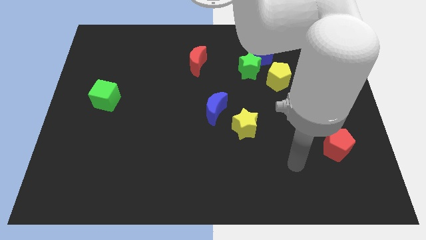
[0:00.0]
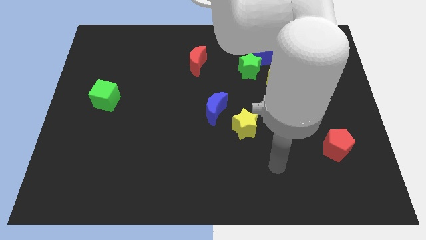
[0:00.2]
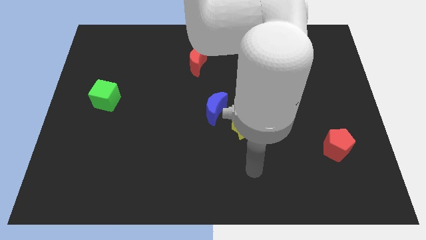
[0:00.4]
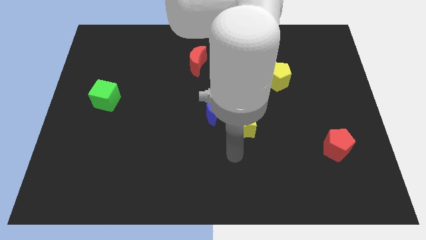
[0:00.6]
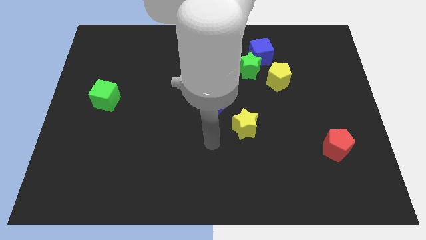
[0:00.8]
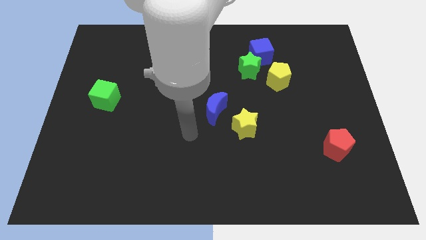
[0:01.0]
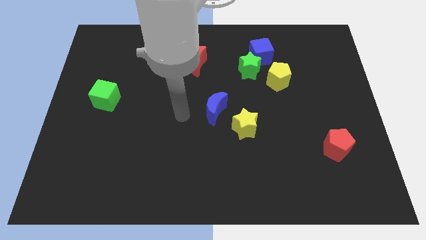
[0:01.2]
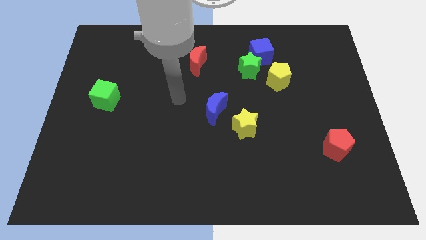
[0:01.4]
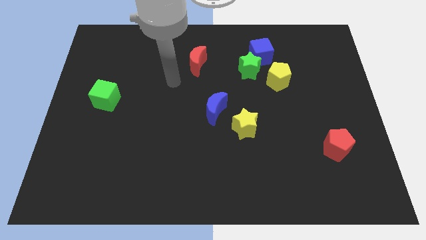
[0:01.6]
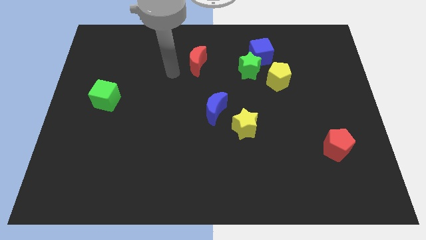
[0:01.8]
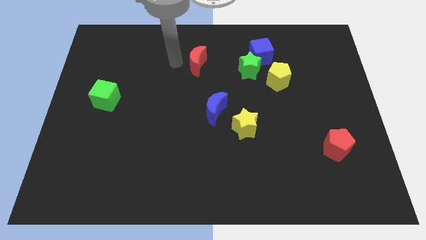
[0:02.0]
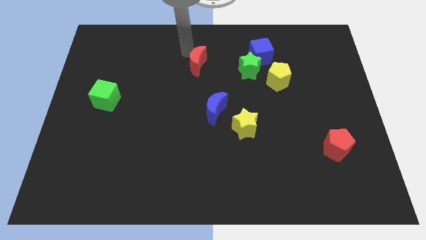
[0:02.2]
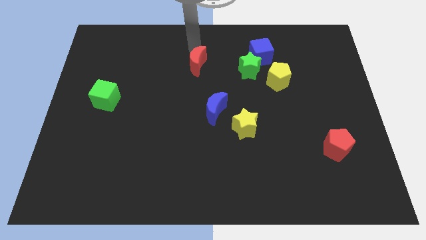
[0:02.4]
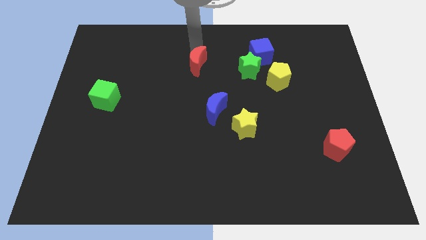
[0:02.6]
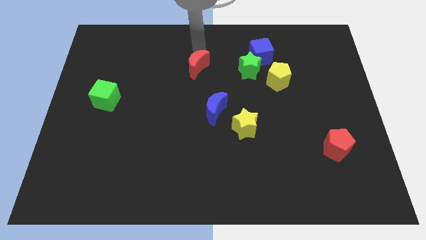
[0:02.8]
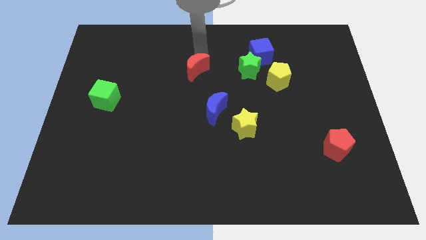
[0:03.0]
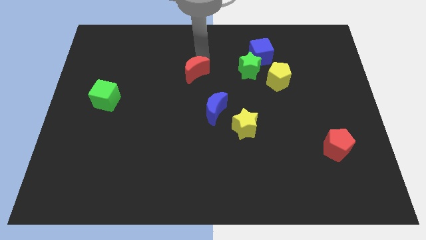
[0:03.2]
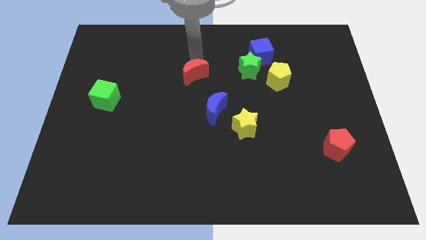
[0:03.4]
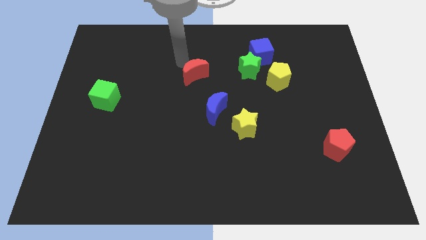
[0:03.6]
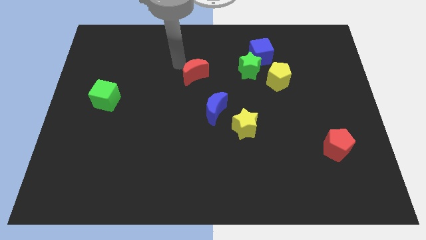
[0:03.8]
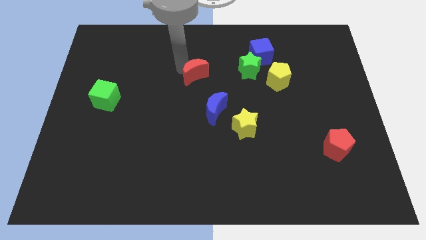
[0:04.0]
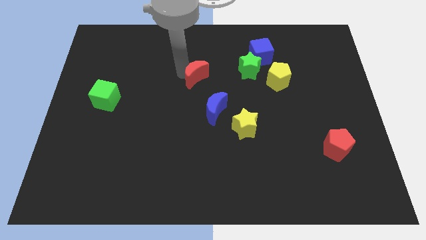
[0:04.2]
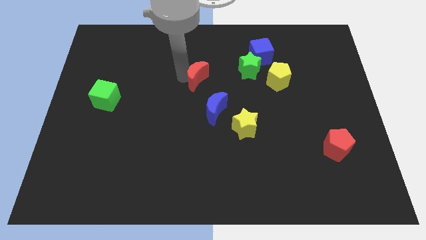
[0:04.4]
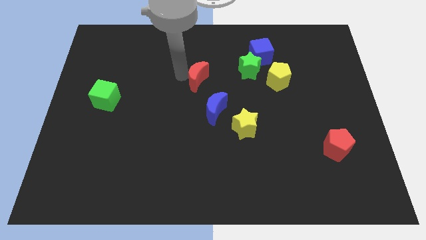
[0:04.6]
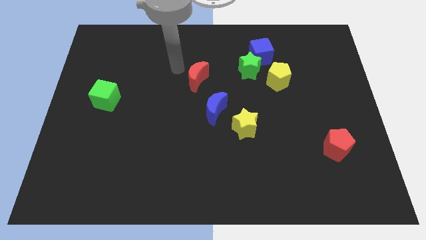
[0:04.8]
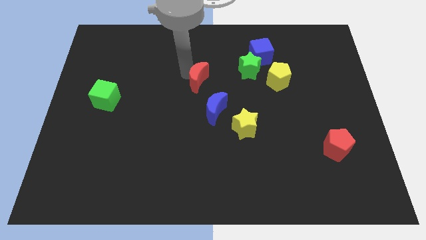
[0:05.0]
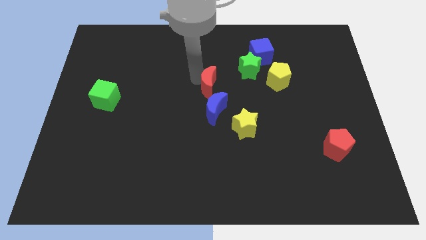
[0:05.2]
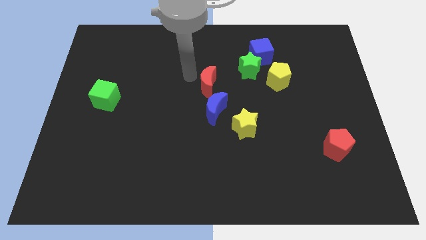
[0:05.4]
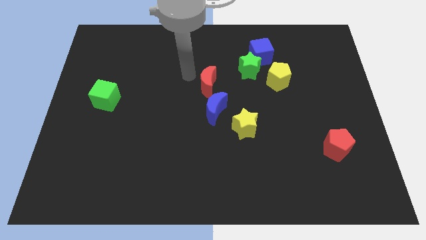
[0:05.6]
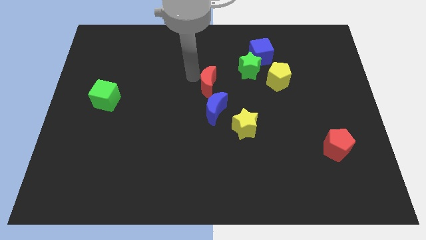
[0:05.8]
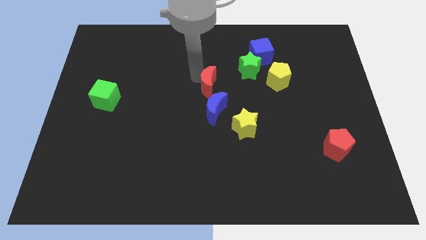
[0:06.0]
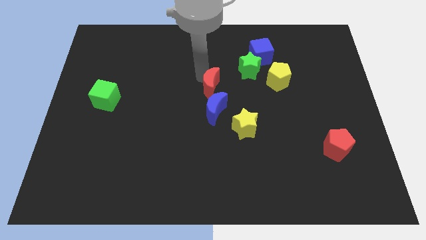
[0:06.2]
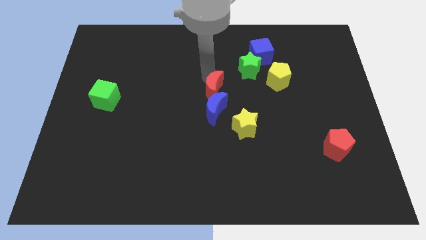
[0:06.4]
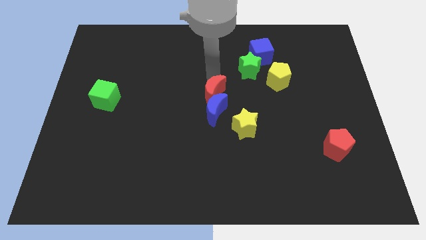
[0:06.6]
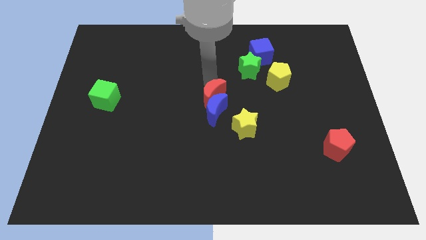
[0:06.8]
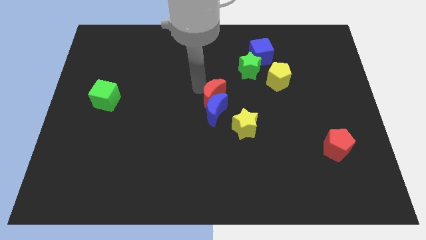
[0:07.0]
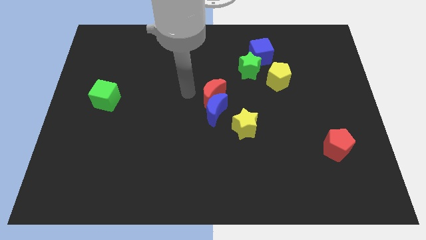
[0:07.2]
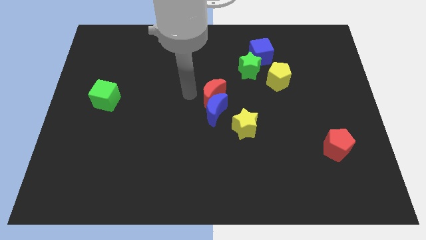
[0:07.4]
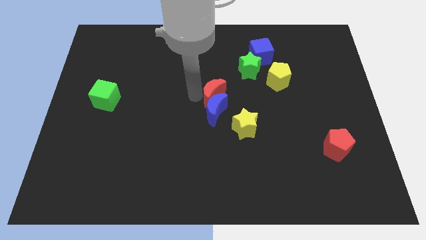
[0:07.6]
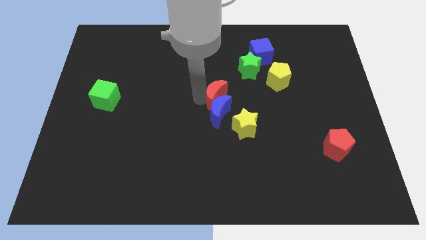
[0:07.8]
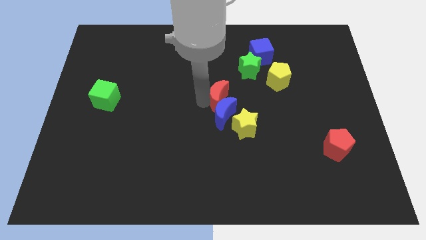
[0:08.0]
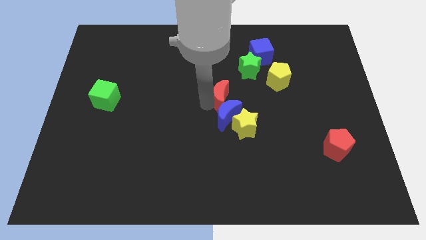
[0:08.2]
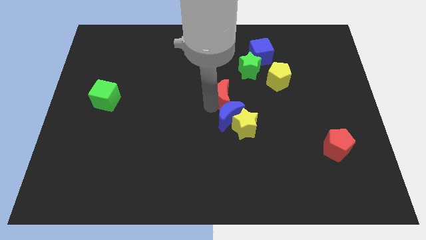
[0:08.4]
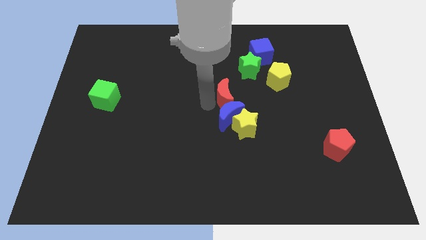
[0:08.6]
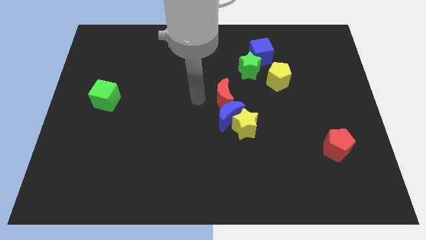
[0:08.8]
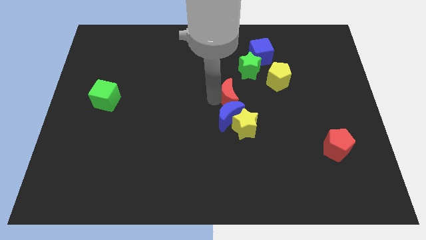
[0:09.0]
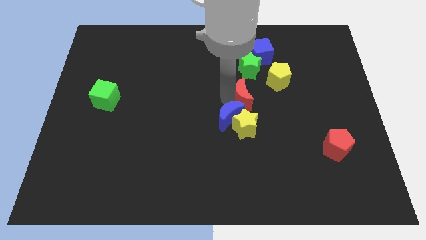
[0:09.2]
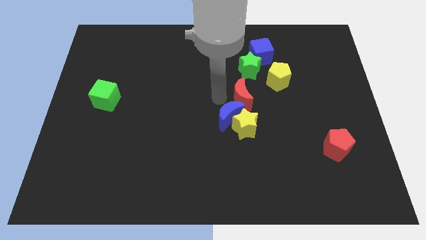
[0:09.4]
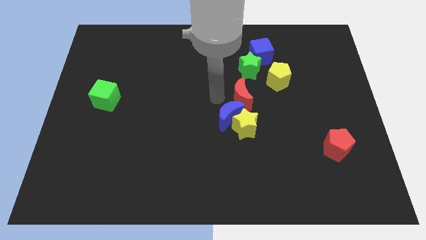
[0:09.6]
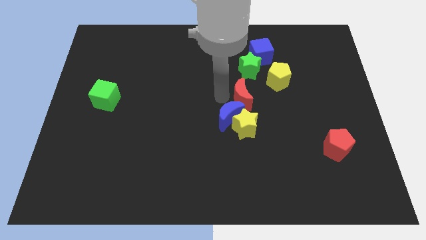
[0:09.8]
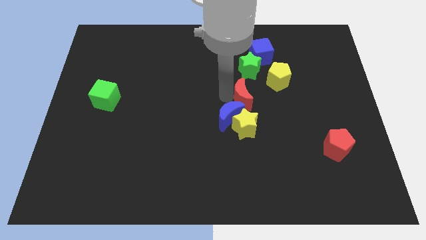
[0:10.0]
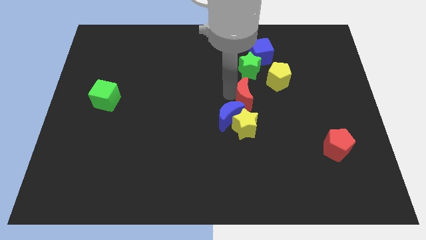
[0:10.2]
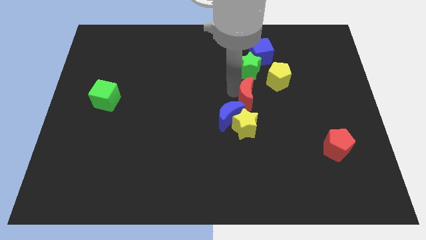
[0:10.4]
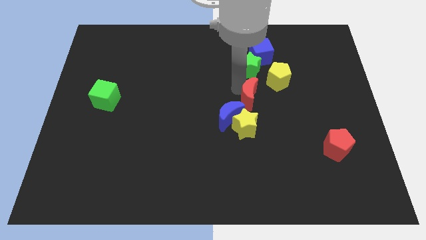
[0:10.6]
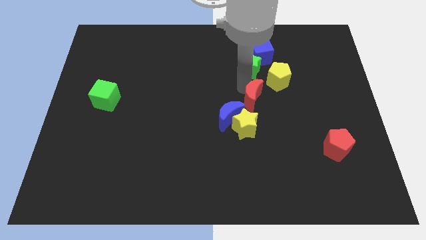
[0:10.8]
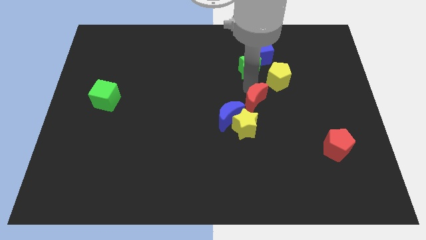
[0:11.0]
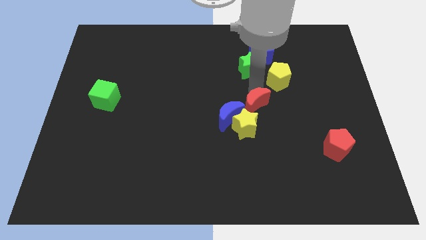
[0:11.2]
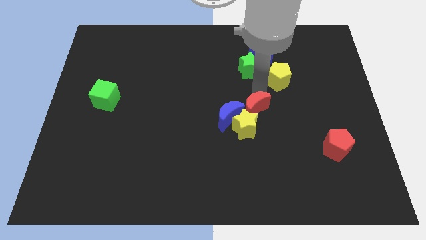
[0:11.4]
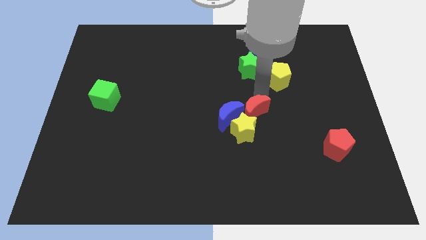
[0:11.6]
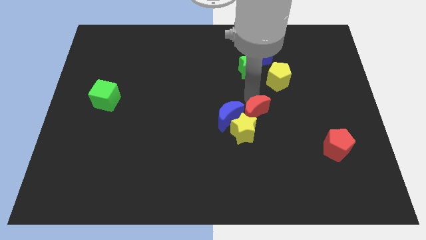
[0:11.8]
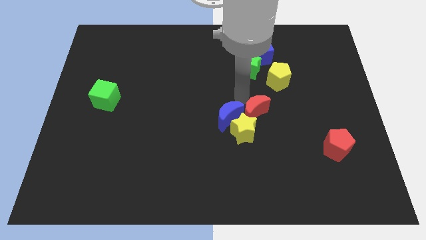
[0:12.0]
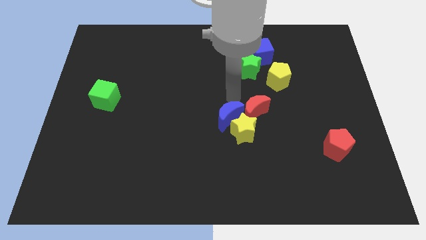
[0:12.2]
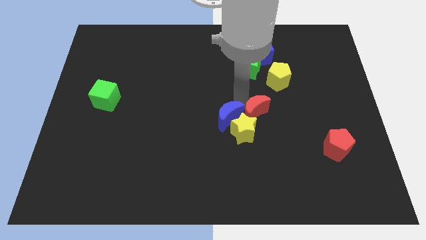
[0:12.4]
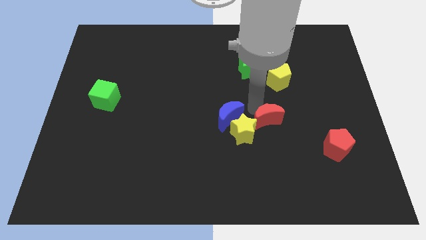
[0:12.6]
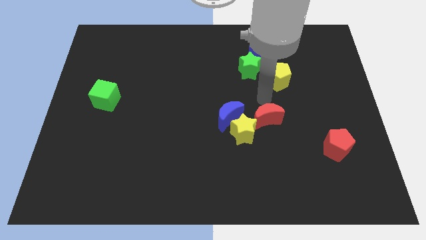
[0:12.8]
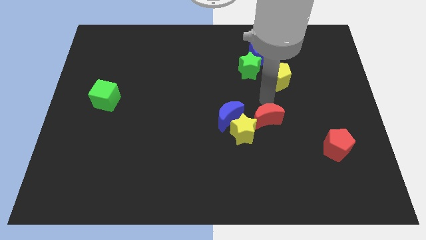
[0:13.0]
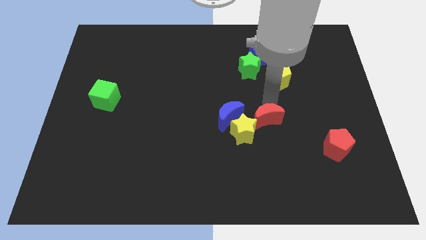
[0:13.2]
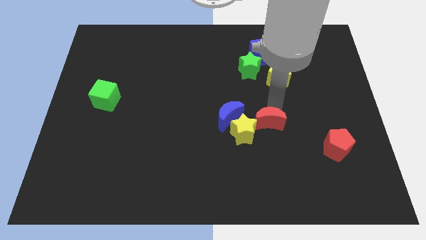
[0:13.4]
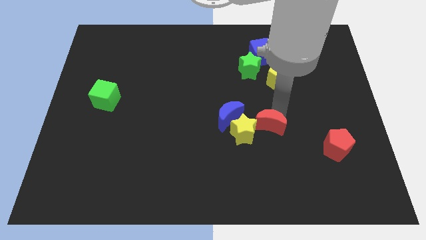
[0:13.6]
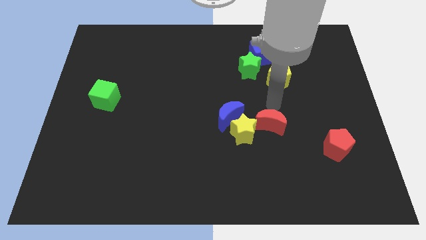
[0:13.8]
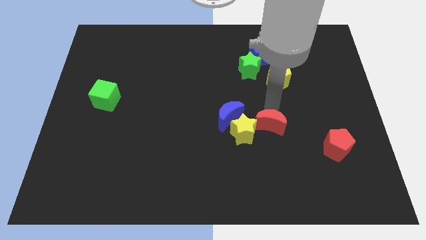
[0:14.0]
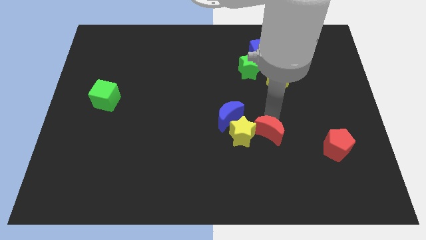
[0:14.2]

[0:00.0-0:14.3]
put the red moon diagonally down and to the right of the yellow star
